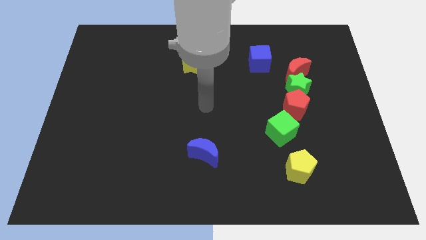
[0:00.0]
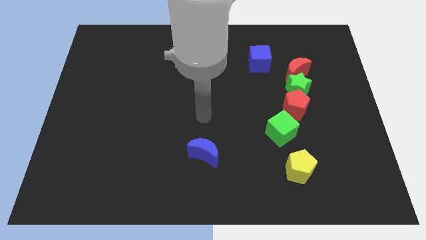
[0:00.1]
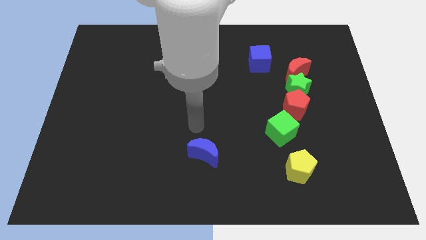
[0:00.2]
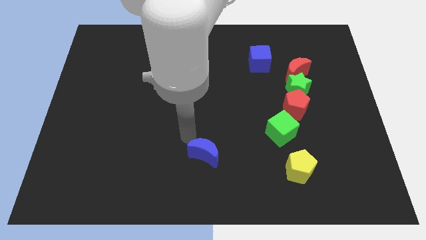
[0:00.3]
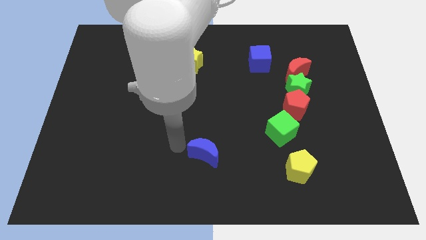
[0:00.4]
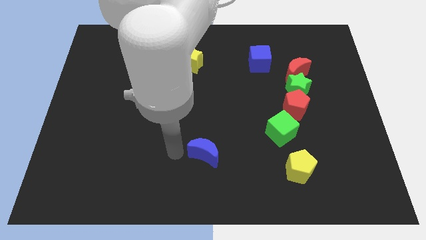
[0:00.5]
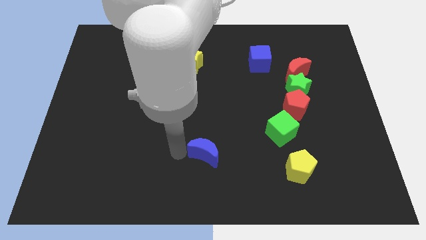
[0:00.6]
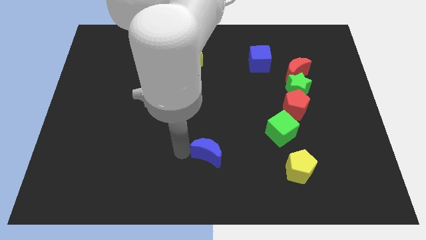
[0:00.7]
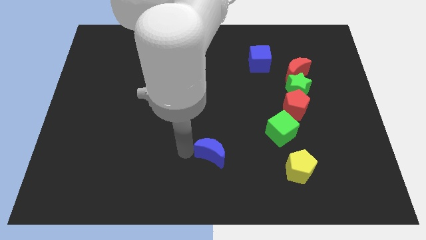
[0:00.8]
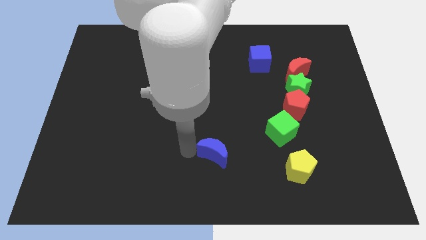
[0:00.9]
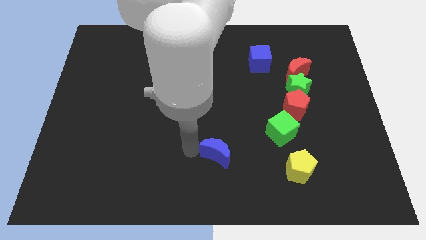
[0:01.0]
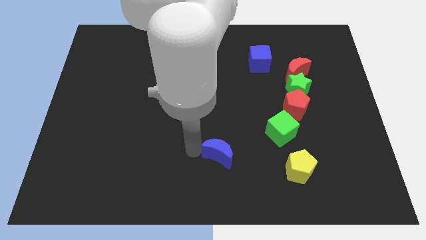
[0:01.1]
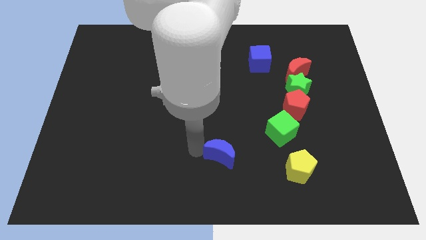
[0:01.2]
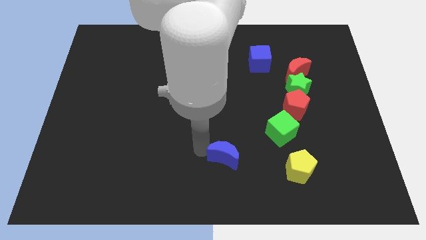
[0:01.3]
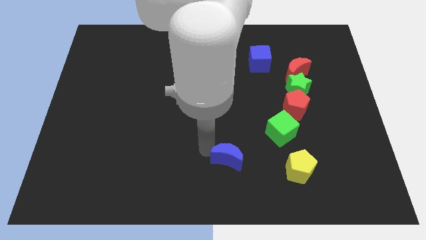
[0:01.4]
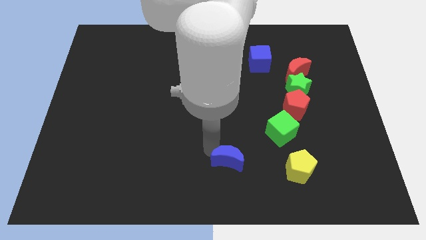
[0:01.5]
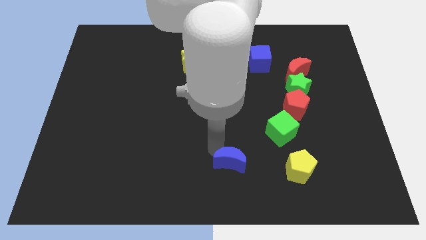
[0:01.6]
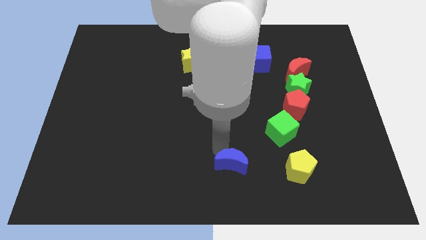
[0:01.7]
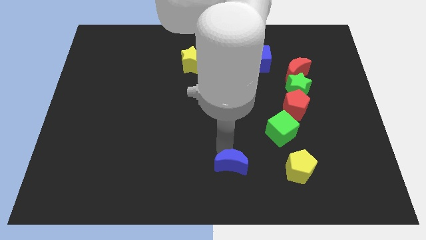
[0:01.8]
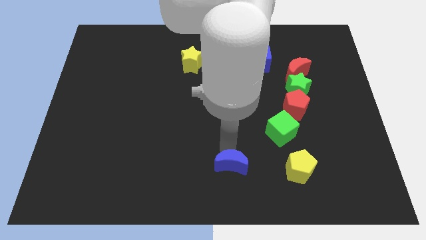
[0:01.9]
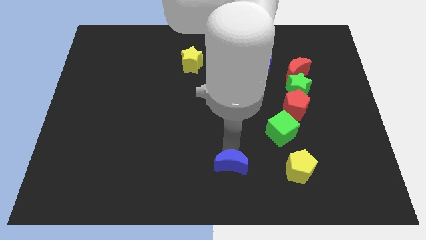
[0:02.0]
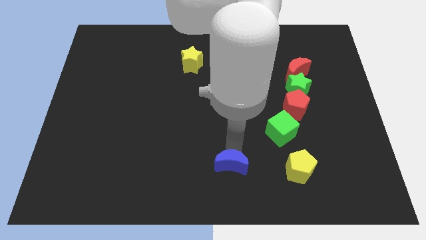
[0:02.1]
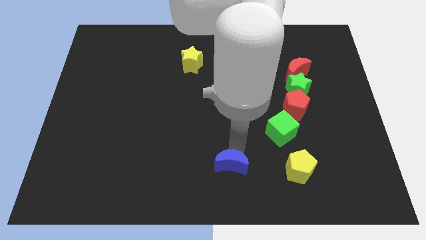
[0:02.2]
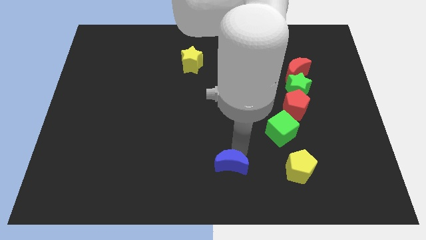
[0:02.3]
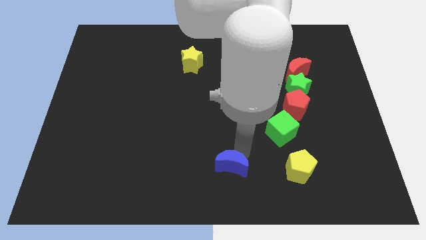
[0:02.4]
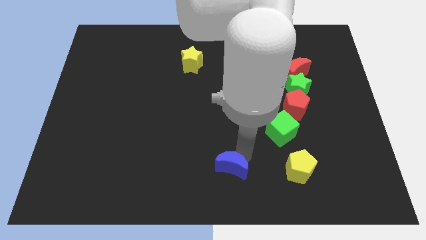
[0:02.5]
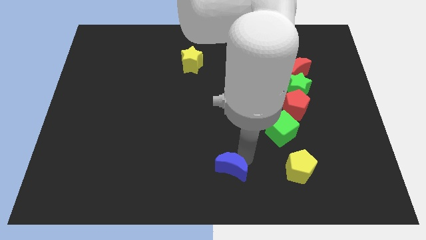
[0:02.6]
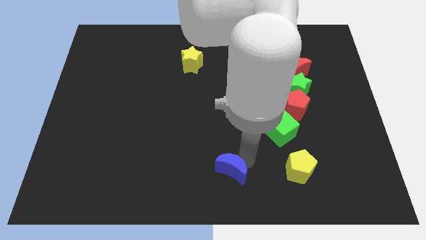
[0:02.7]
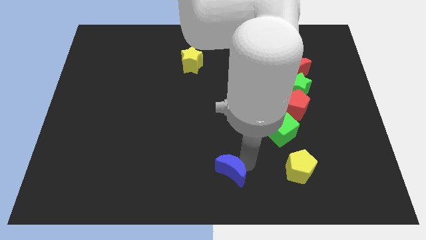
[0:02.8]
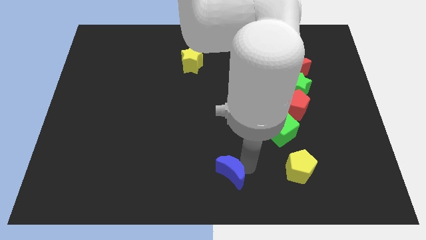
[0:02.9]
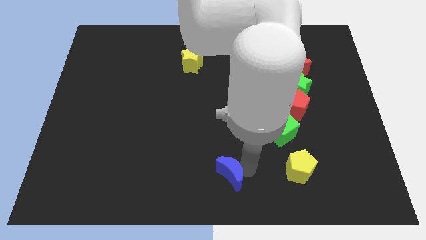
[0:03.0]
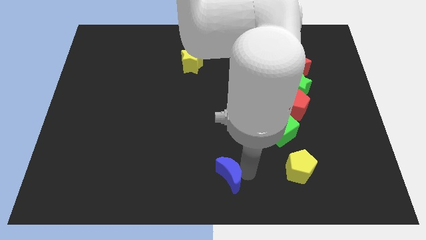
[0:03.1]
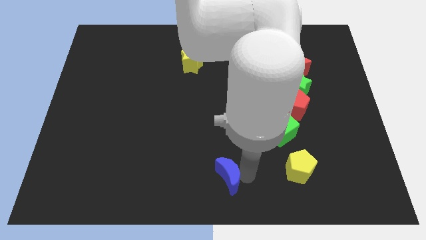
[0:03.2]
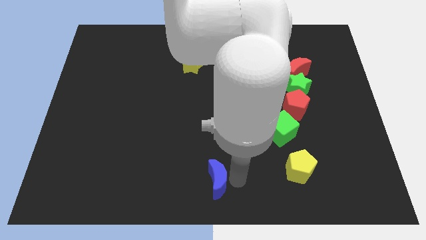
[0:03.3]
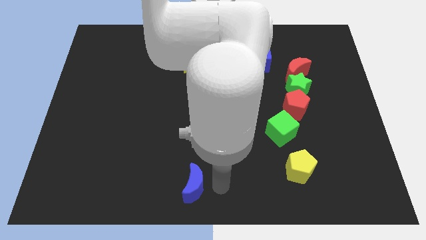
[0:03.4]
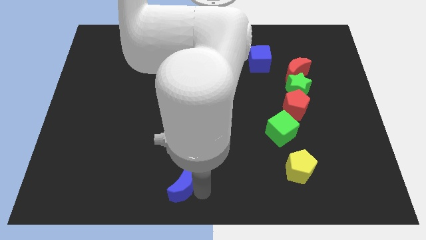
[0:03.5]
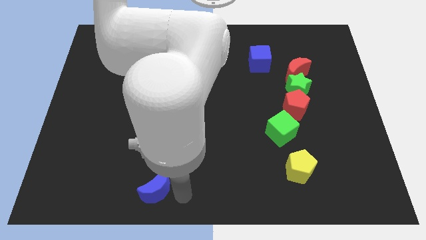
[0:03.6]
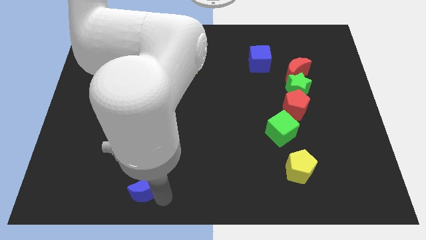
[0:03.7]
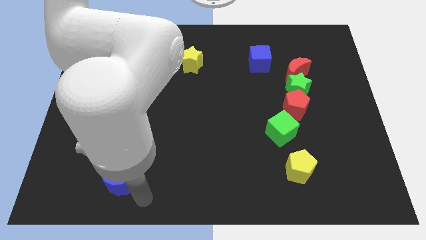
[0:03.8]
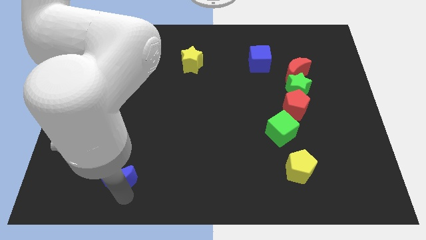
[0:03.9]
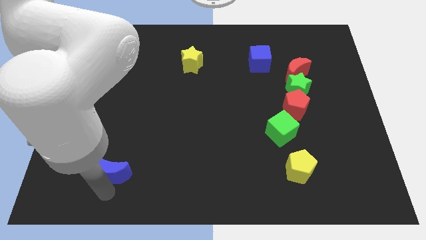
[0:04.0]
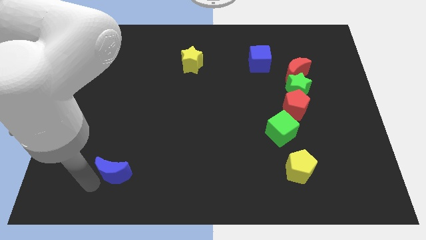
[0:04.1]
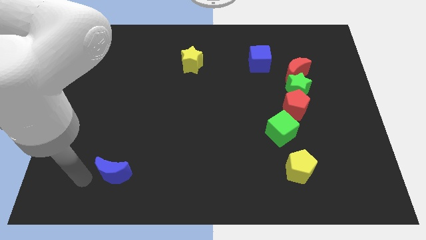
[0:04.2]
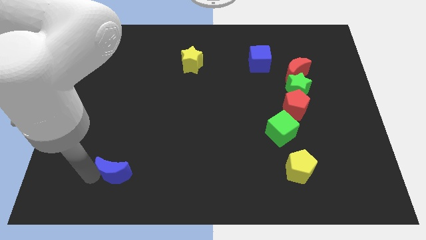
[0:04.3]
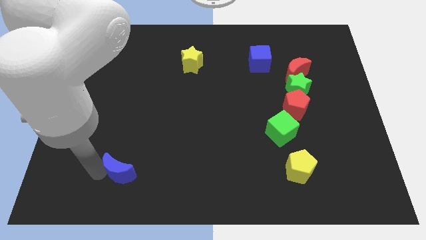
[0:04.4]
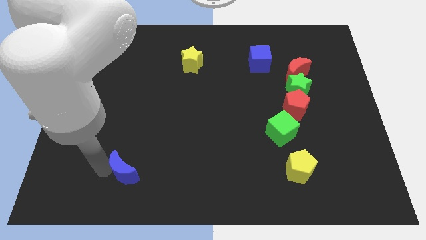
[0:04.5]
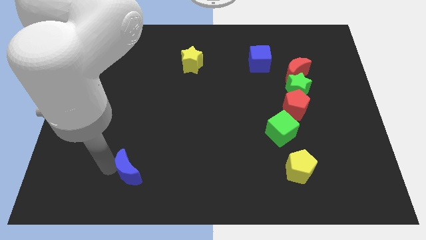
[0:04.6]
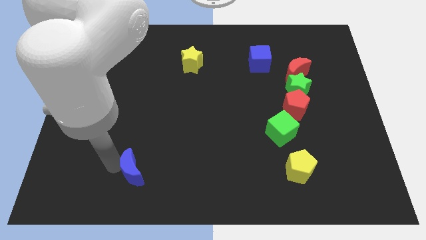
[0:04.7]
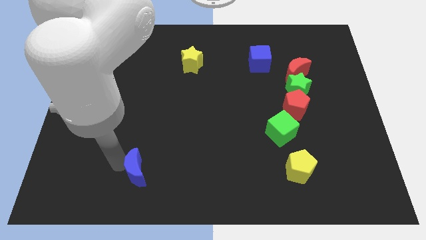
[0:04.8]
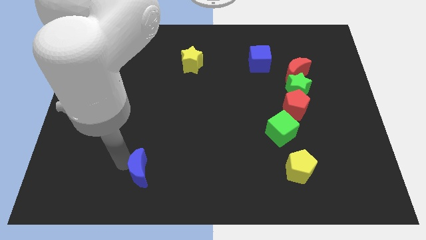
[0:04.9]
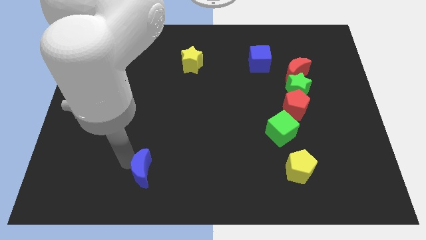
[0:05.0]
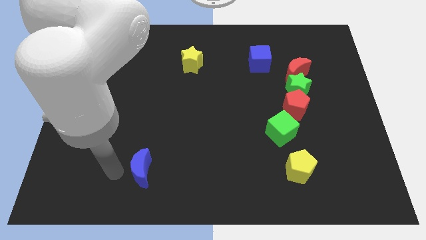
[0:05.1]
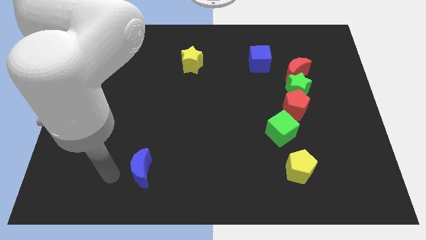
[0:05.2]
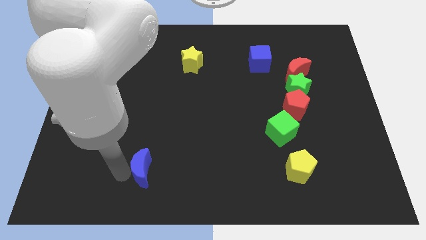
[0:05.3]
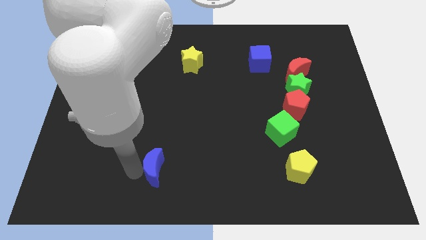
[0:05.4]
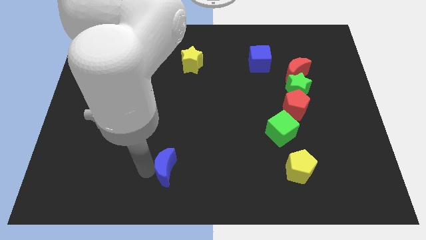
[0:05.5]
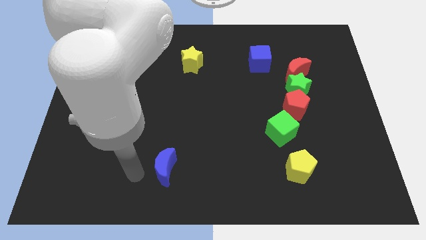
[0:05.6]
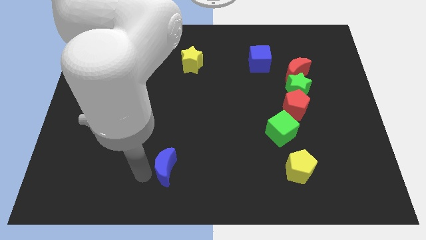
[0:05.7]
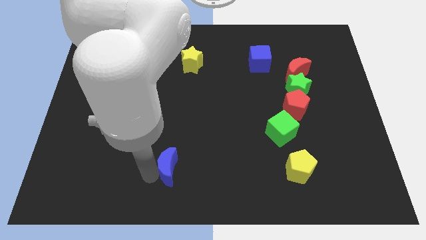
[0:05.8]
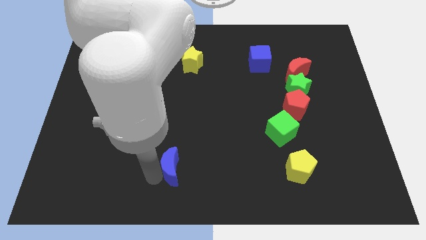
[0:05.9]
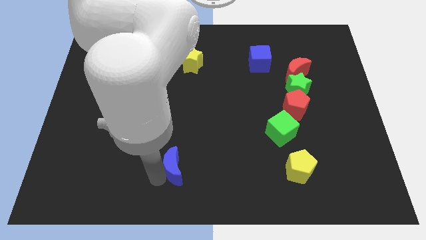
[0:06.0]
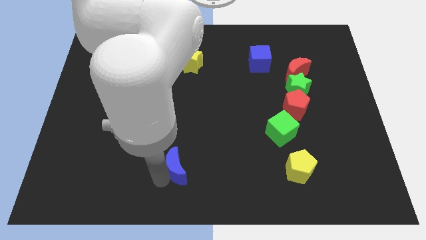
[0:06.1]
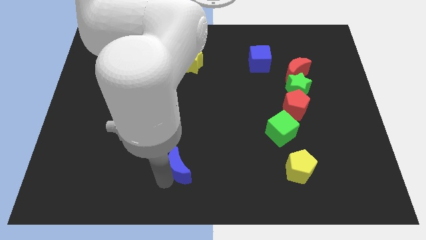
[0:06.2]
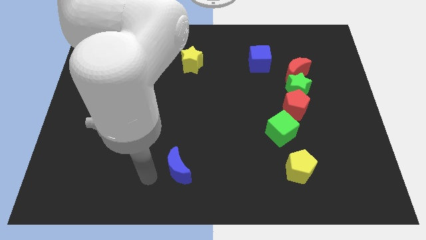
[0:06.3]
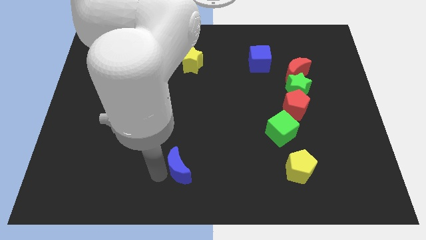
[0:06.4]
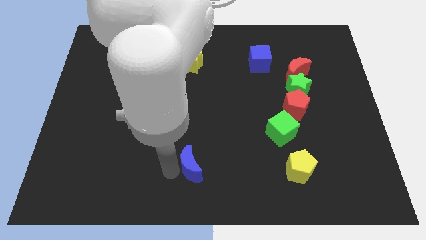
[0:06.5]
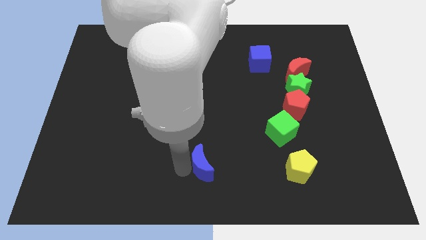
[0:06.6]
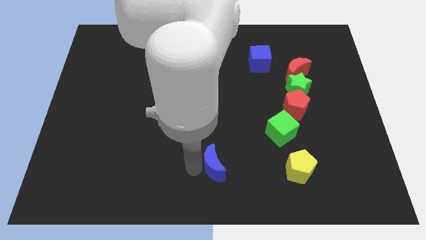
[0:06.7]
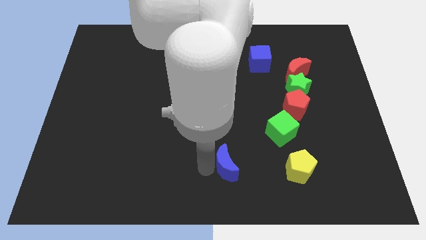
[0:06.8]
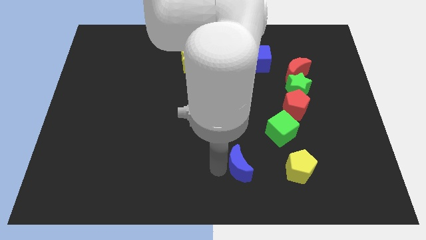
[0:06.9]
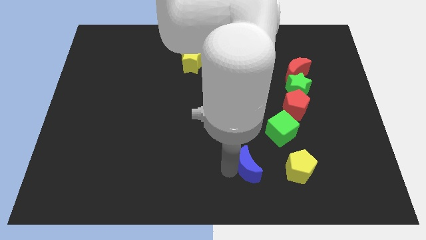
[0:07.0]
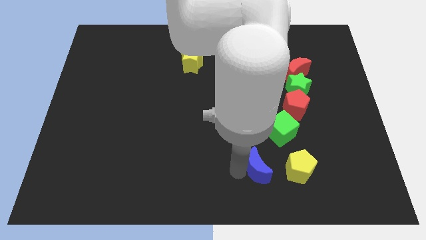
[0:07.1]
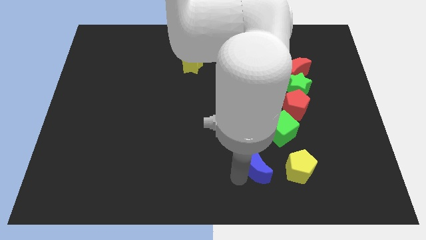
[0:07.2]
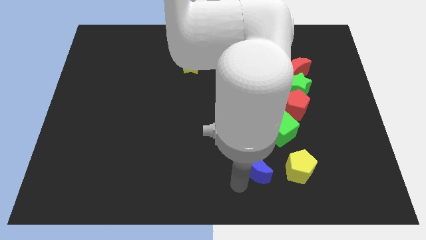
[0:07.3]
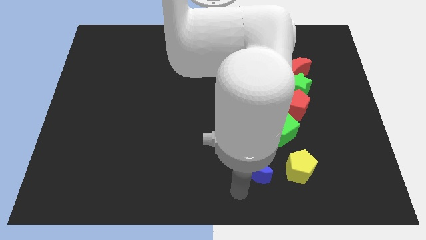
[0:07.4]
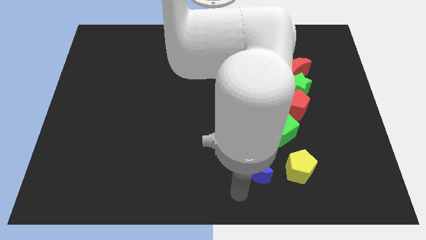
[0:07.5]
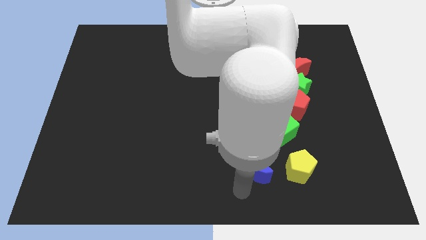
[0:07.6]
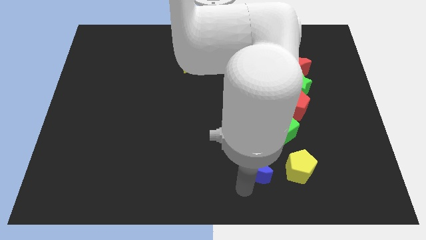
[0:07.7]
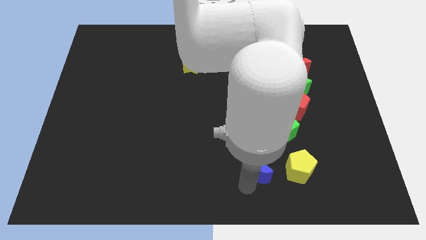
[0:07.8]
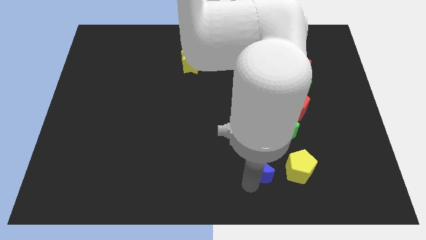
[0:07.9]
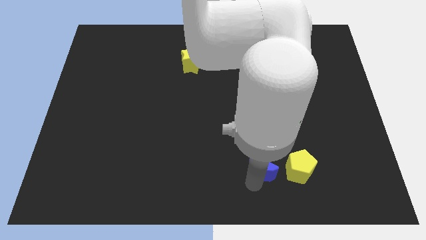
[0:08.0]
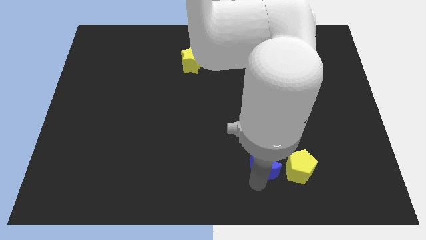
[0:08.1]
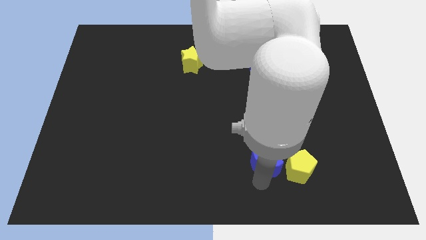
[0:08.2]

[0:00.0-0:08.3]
move the blue moon to the top left side of the yellow pentagon
